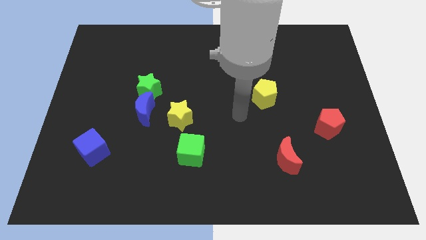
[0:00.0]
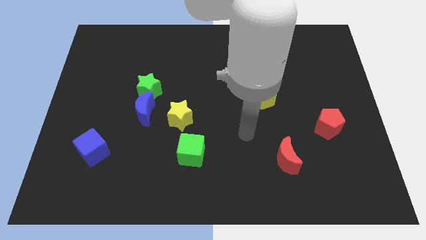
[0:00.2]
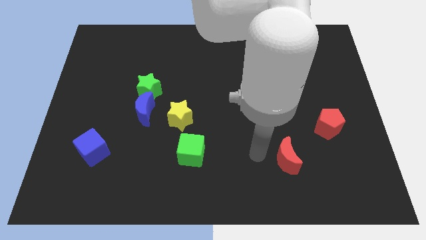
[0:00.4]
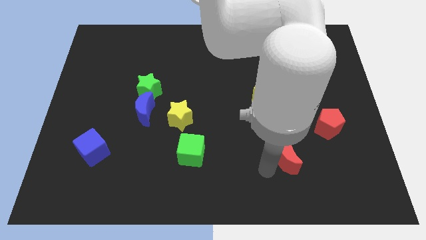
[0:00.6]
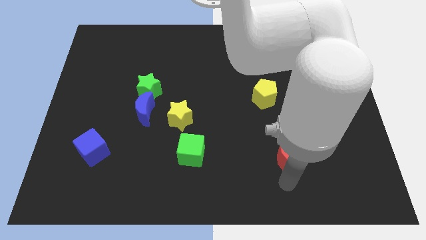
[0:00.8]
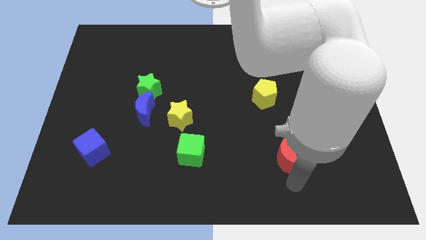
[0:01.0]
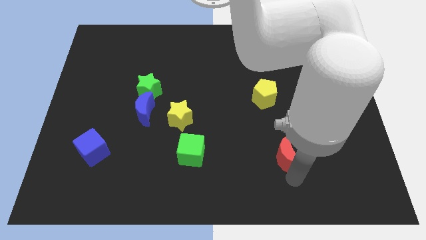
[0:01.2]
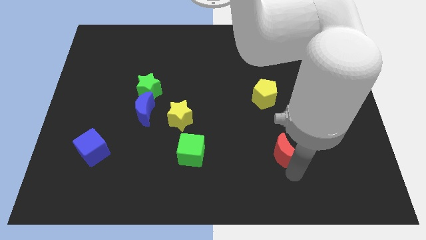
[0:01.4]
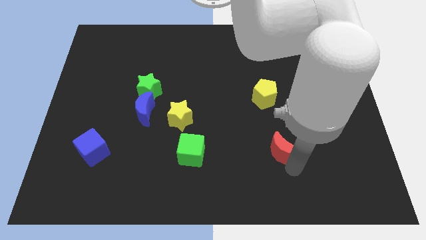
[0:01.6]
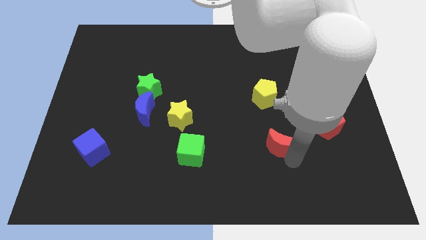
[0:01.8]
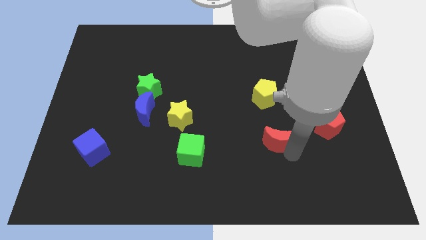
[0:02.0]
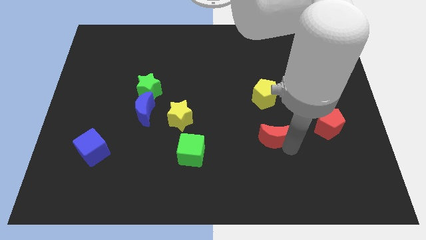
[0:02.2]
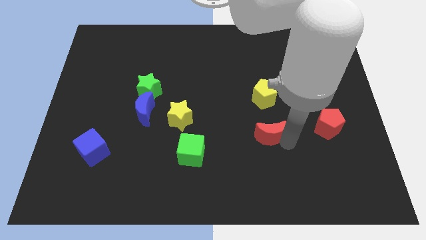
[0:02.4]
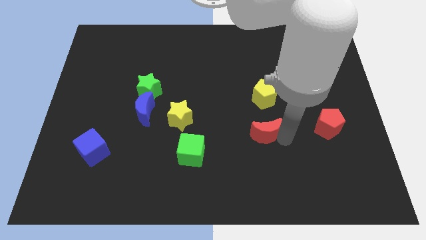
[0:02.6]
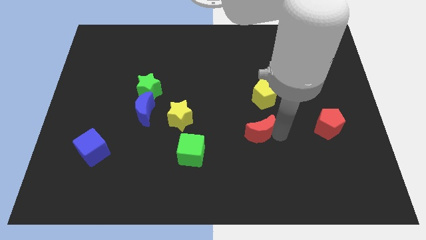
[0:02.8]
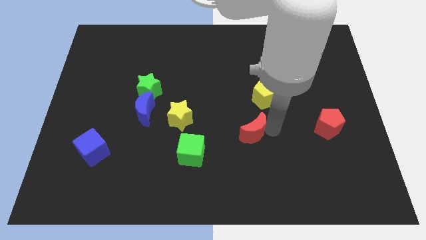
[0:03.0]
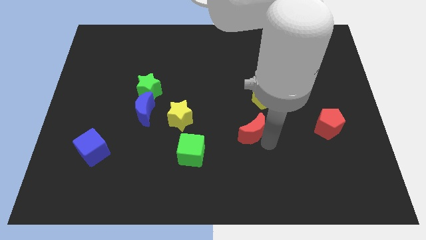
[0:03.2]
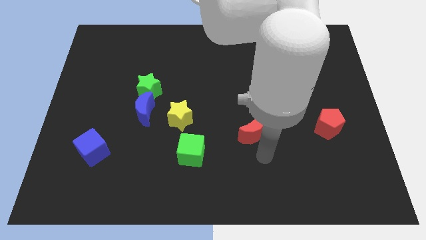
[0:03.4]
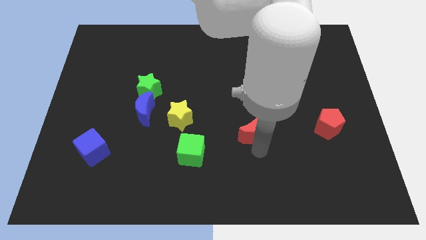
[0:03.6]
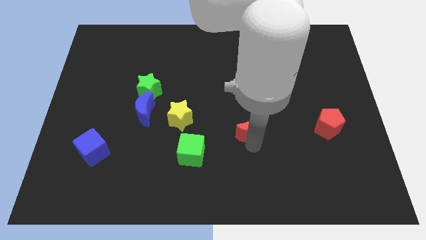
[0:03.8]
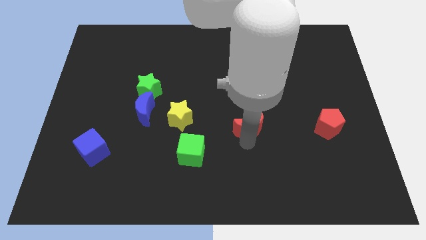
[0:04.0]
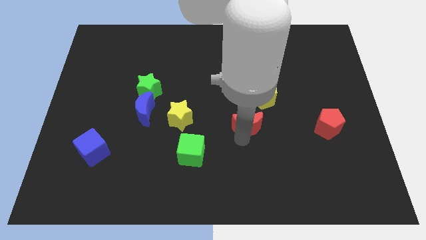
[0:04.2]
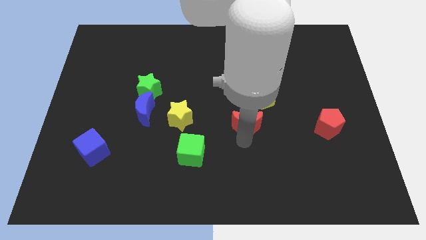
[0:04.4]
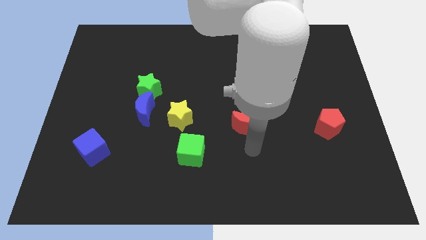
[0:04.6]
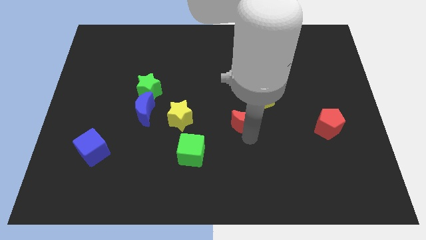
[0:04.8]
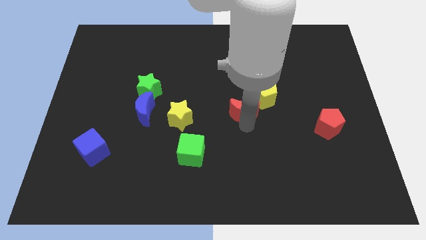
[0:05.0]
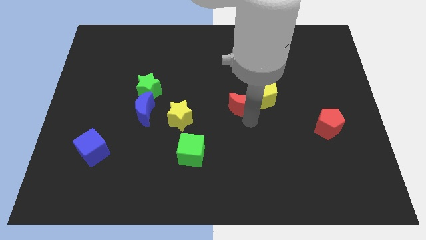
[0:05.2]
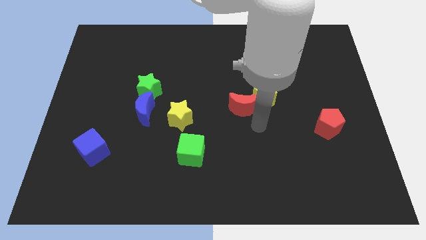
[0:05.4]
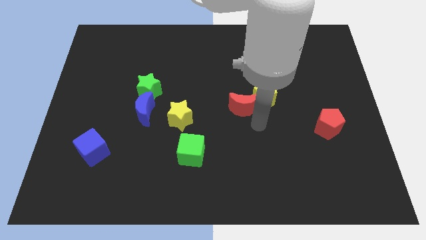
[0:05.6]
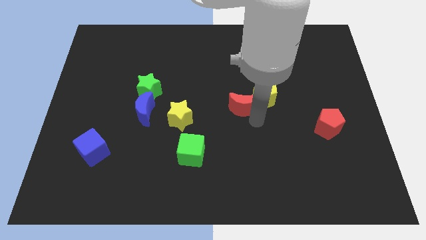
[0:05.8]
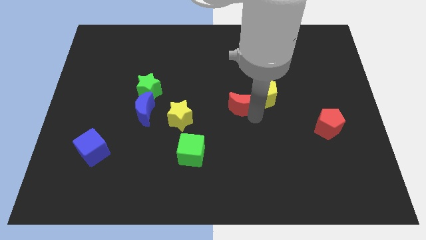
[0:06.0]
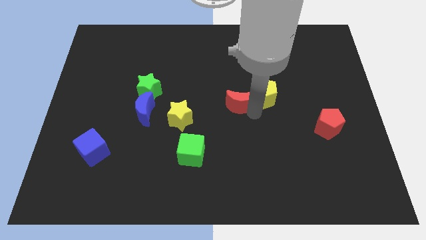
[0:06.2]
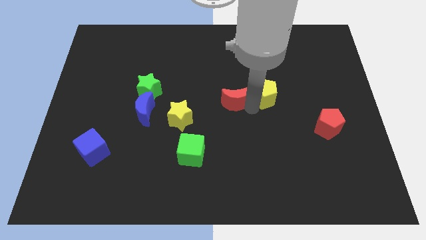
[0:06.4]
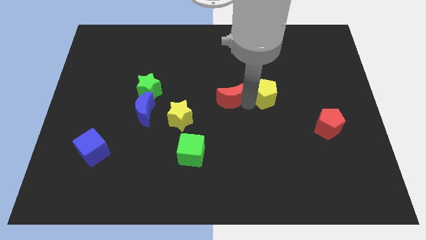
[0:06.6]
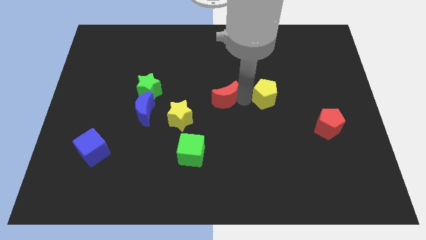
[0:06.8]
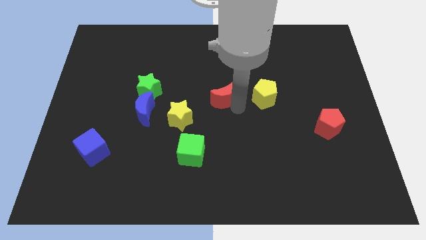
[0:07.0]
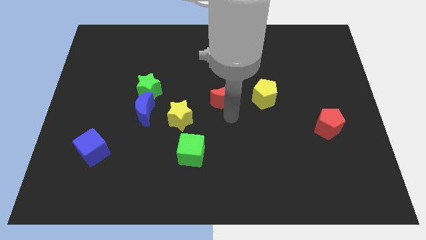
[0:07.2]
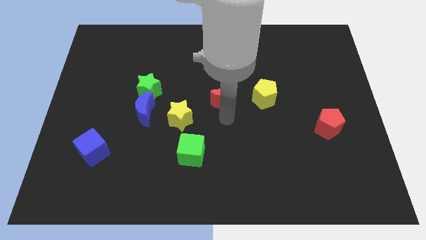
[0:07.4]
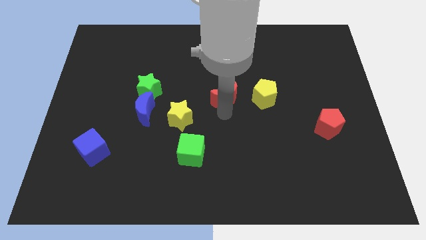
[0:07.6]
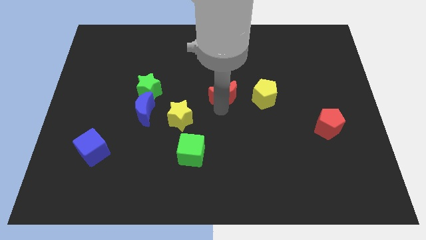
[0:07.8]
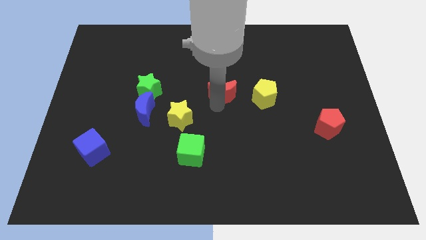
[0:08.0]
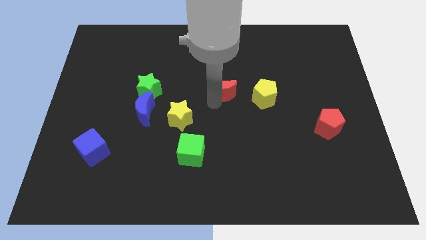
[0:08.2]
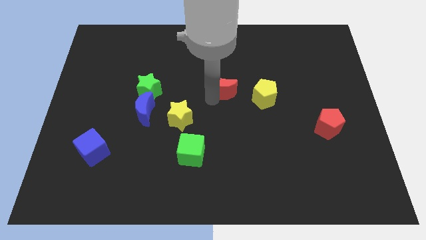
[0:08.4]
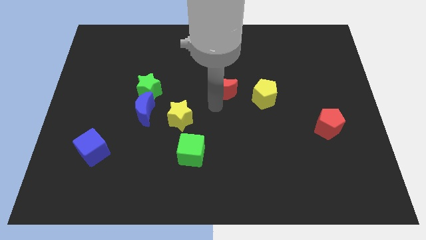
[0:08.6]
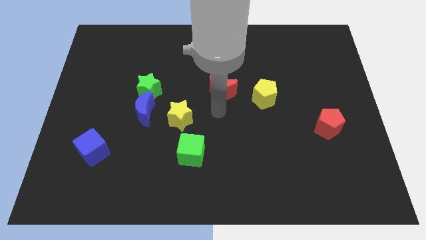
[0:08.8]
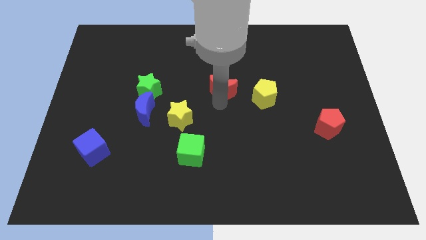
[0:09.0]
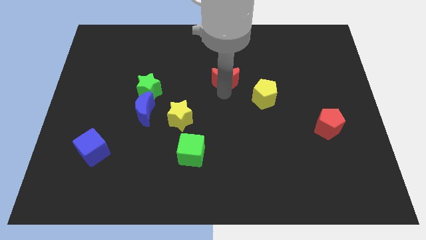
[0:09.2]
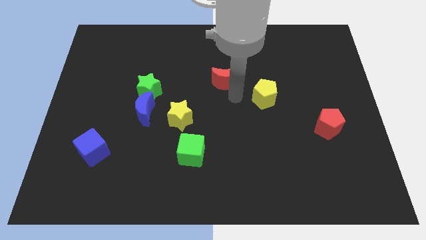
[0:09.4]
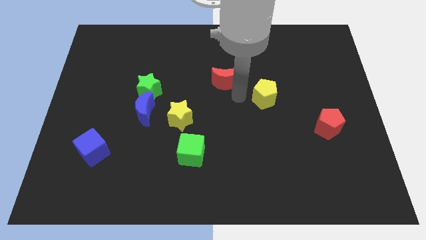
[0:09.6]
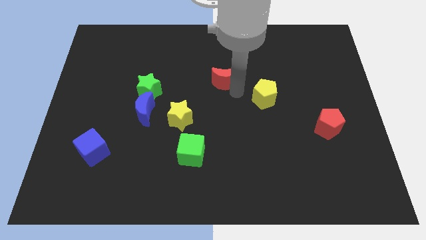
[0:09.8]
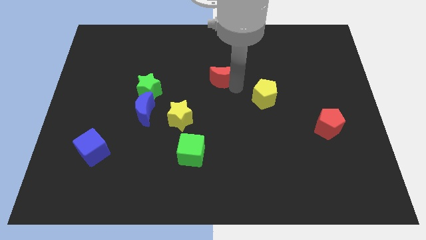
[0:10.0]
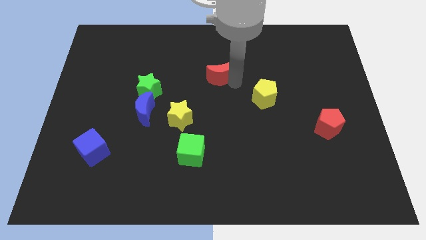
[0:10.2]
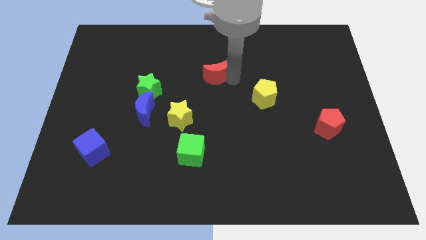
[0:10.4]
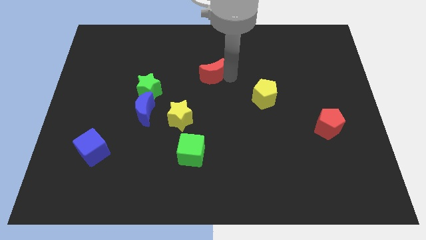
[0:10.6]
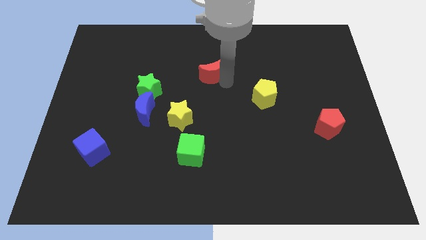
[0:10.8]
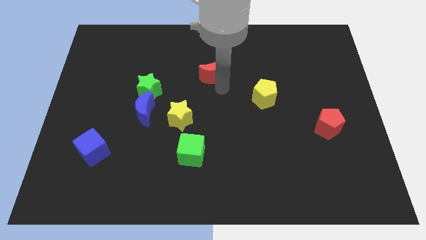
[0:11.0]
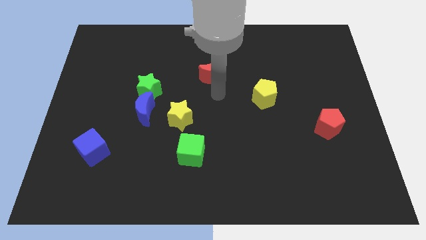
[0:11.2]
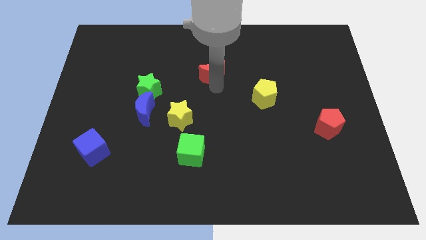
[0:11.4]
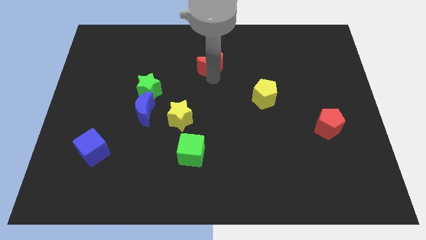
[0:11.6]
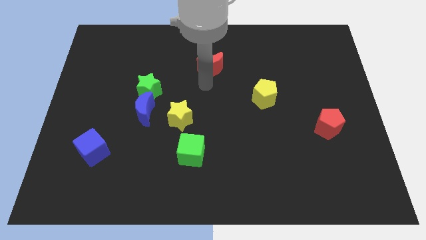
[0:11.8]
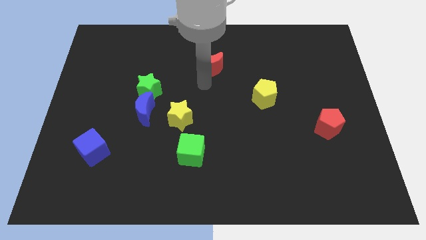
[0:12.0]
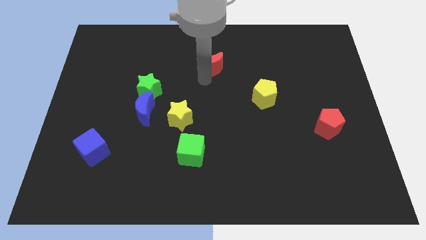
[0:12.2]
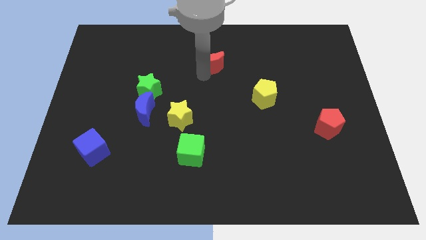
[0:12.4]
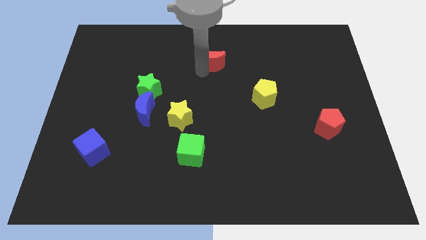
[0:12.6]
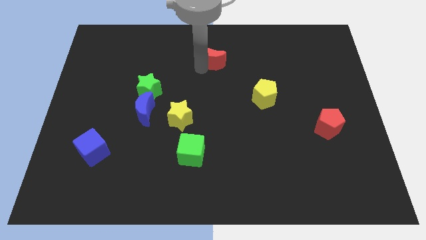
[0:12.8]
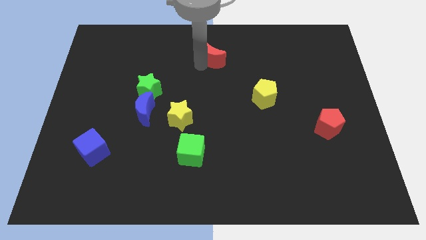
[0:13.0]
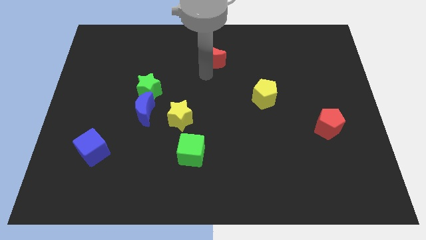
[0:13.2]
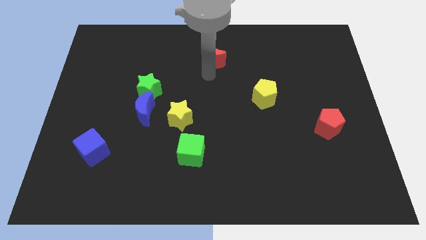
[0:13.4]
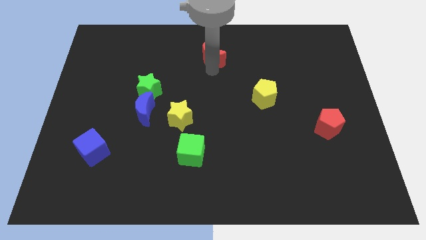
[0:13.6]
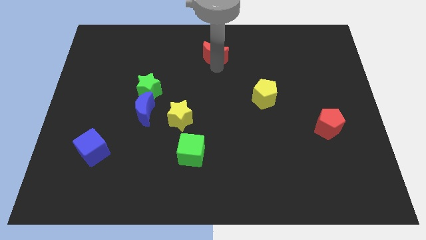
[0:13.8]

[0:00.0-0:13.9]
move the red moon to the towards your base

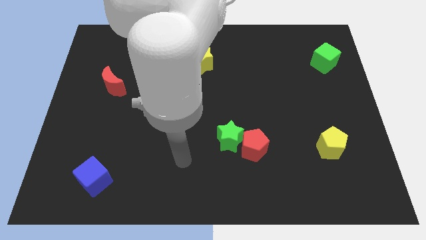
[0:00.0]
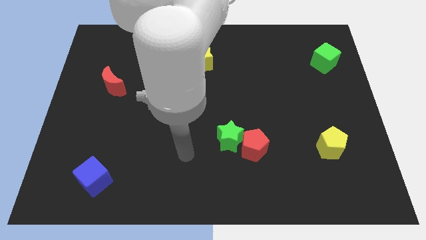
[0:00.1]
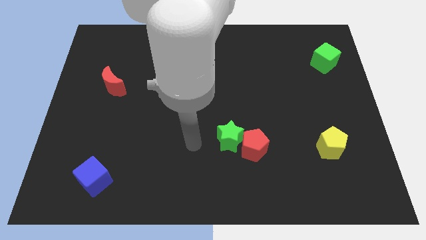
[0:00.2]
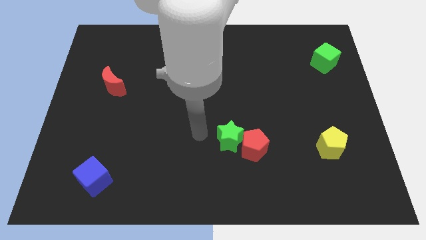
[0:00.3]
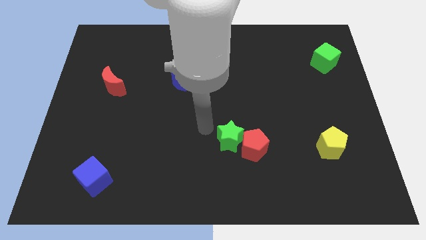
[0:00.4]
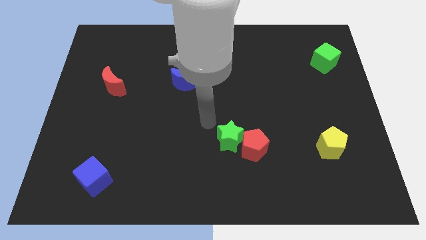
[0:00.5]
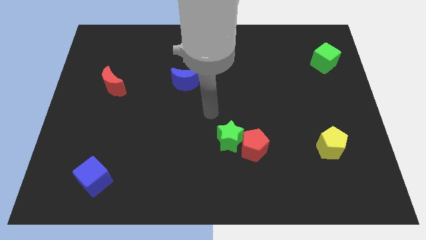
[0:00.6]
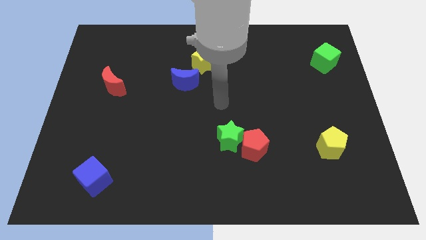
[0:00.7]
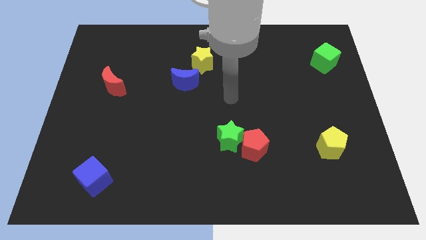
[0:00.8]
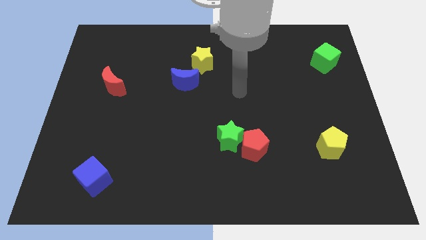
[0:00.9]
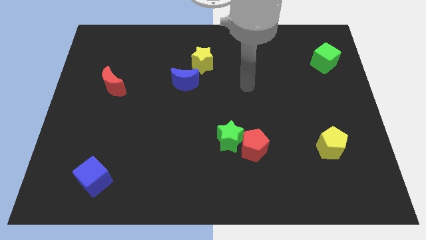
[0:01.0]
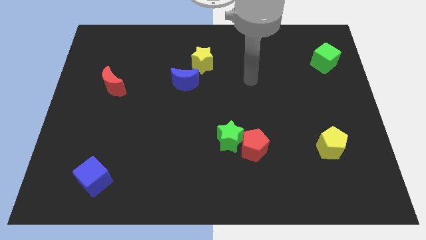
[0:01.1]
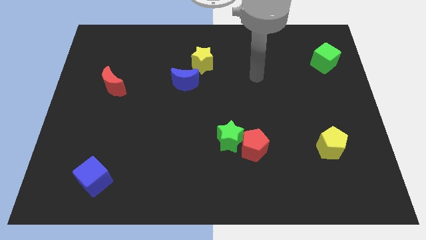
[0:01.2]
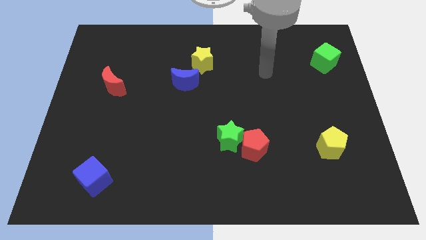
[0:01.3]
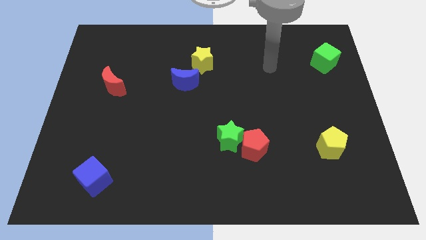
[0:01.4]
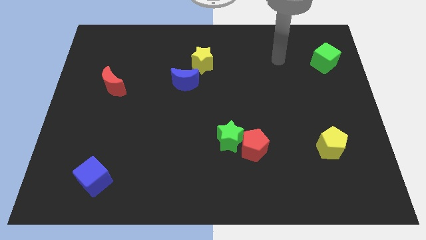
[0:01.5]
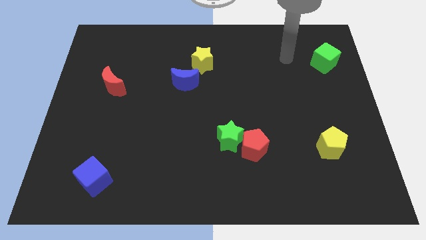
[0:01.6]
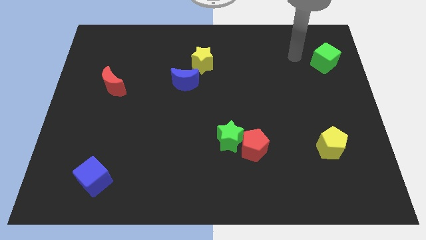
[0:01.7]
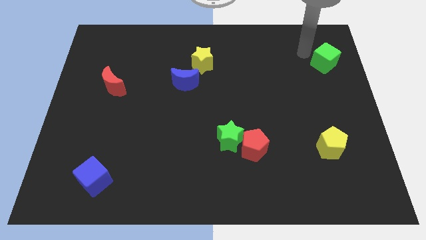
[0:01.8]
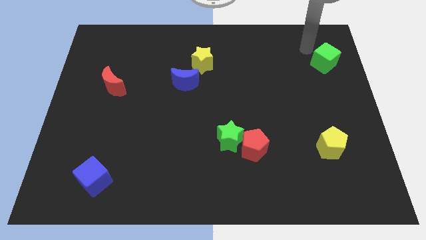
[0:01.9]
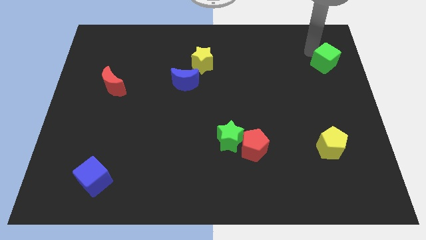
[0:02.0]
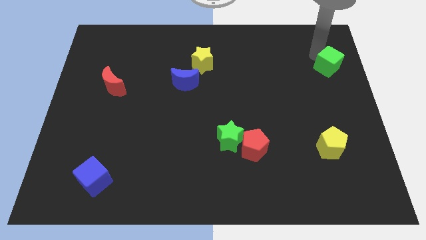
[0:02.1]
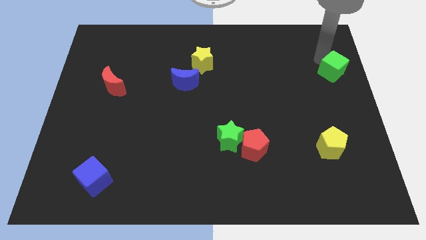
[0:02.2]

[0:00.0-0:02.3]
put the green cube to the right side
